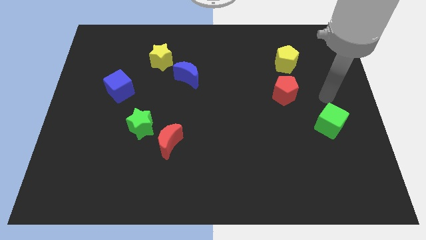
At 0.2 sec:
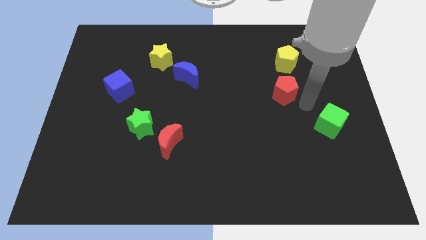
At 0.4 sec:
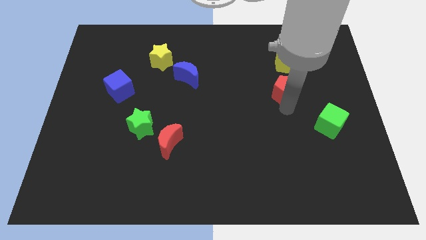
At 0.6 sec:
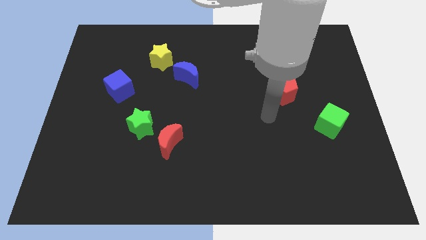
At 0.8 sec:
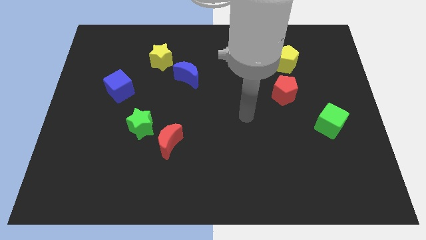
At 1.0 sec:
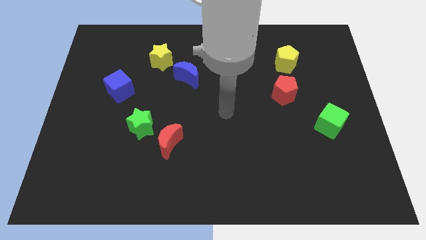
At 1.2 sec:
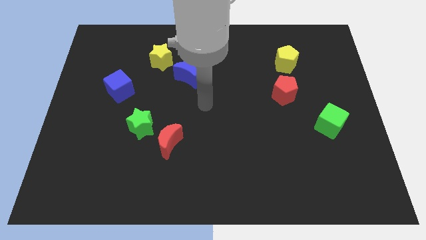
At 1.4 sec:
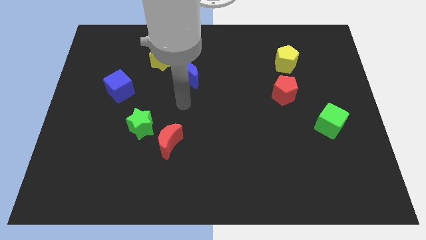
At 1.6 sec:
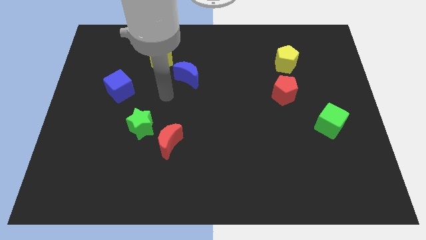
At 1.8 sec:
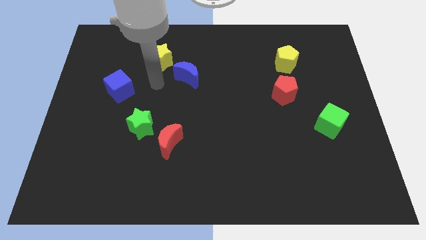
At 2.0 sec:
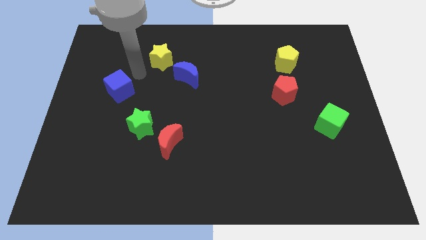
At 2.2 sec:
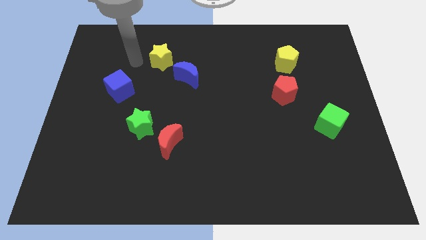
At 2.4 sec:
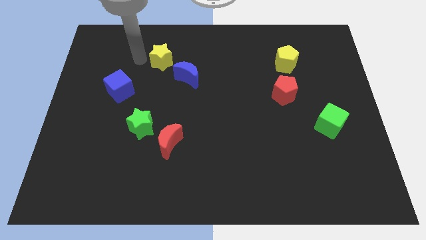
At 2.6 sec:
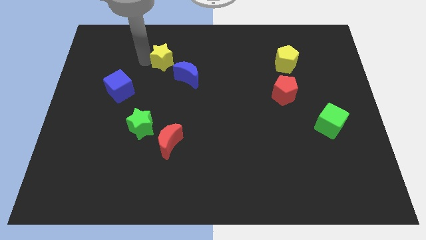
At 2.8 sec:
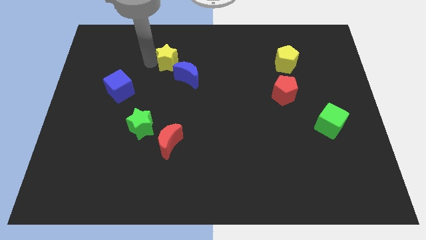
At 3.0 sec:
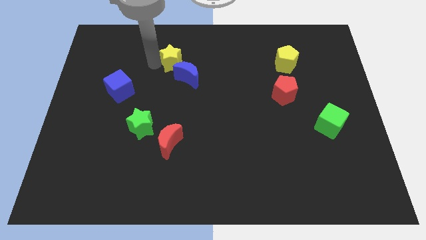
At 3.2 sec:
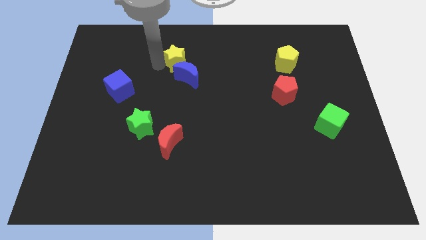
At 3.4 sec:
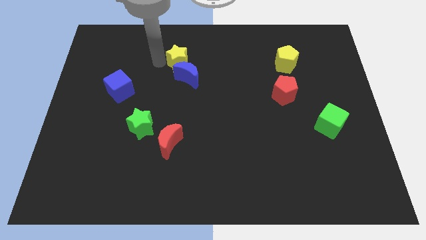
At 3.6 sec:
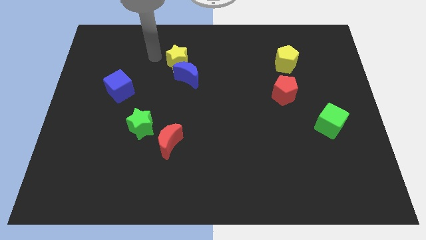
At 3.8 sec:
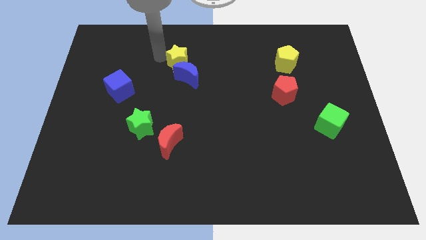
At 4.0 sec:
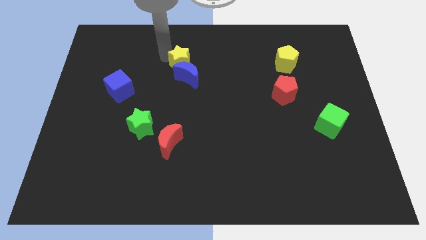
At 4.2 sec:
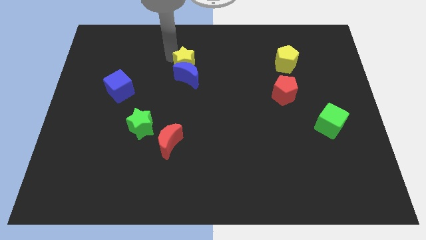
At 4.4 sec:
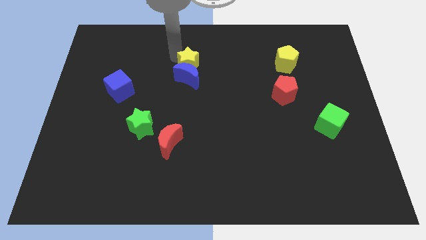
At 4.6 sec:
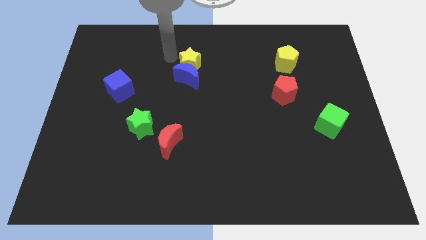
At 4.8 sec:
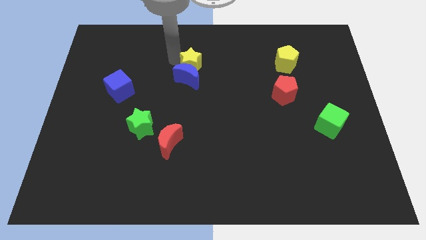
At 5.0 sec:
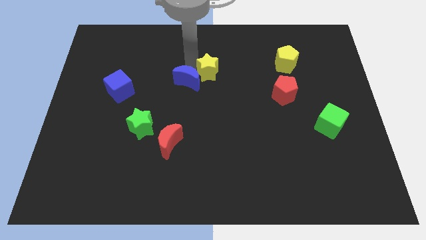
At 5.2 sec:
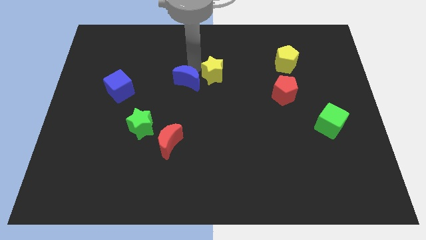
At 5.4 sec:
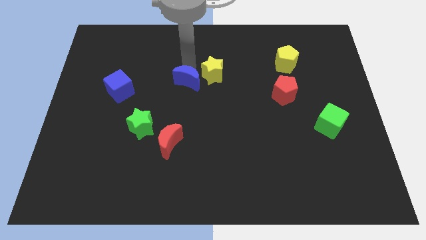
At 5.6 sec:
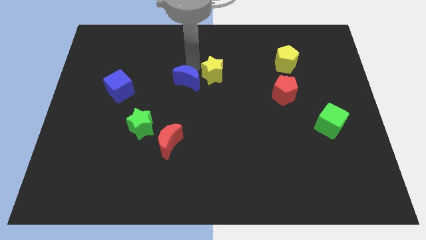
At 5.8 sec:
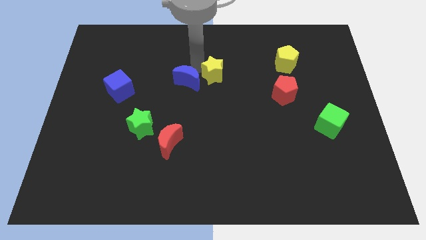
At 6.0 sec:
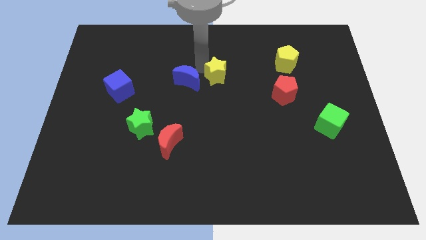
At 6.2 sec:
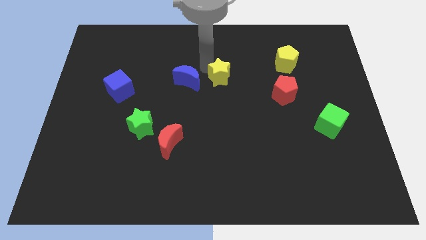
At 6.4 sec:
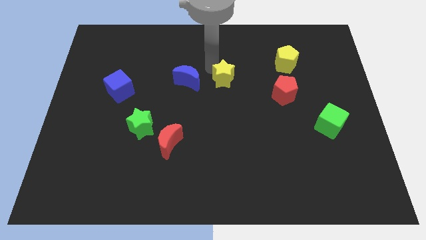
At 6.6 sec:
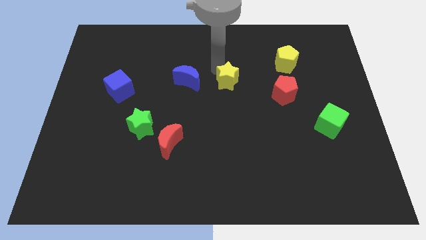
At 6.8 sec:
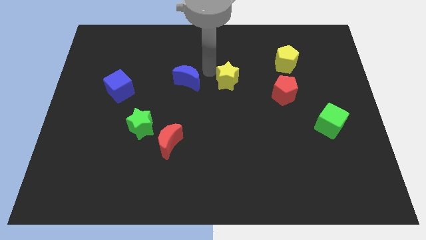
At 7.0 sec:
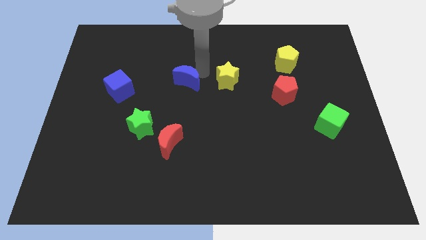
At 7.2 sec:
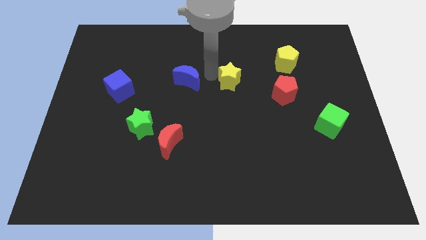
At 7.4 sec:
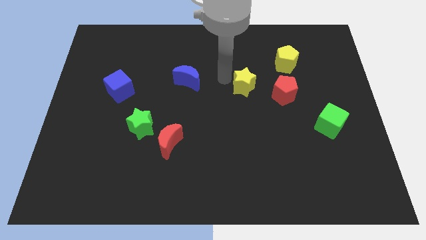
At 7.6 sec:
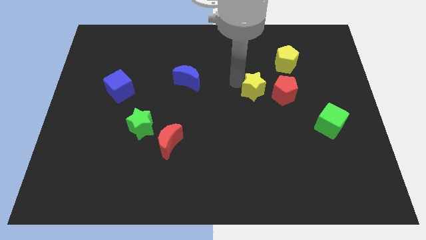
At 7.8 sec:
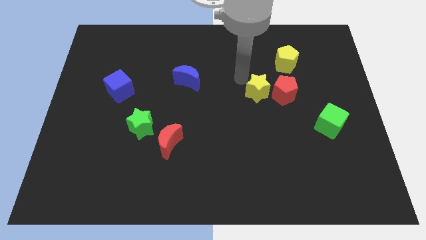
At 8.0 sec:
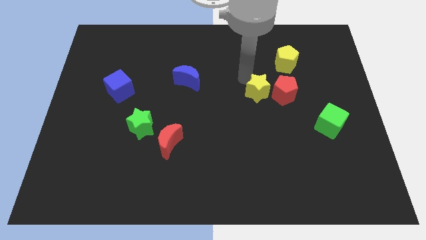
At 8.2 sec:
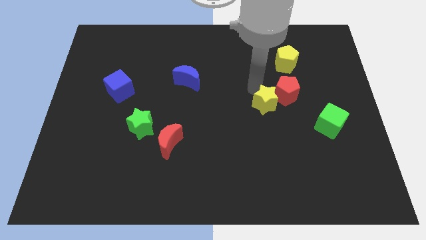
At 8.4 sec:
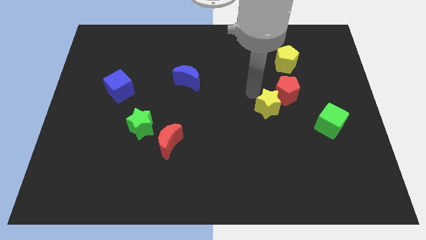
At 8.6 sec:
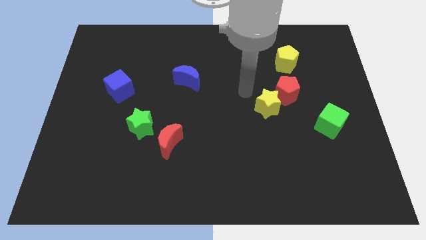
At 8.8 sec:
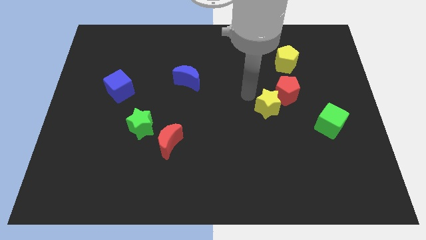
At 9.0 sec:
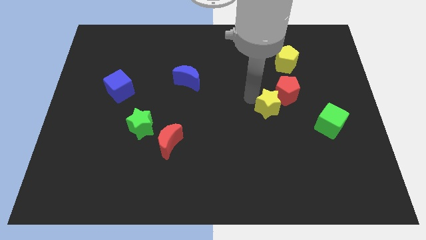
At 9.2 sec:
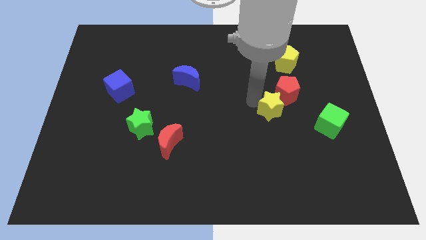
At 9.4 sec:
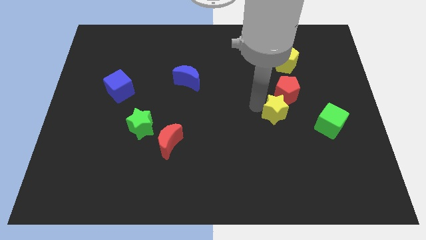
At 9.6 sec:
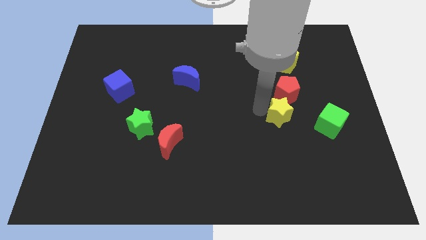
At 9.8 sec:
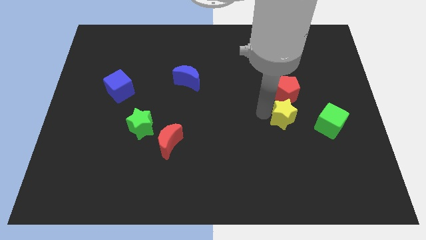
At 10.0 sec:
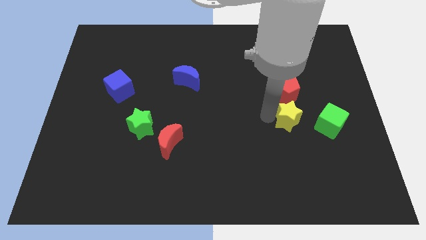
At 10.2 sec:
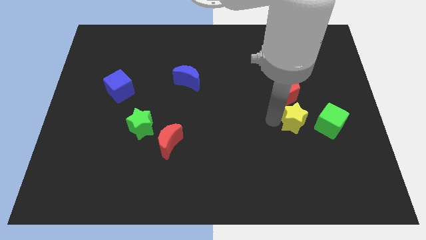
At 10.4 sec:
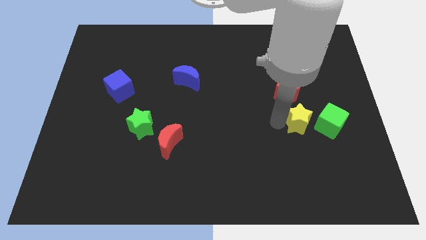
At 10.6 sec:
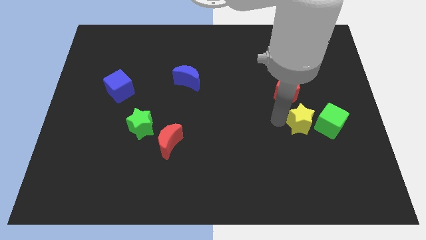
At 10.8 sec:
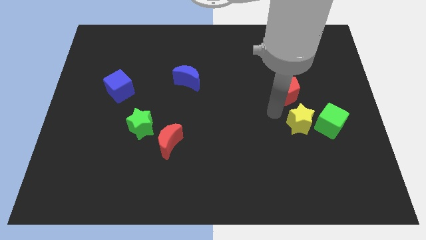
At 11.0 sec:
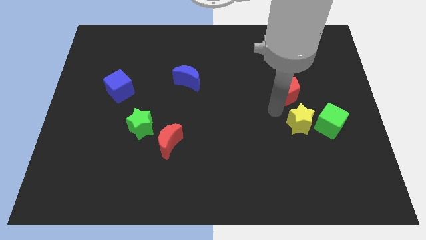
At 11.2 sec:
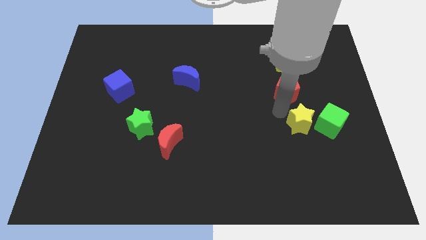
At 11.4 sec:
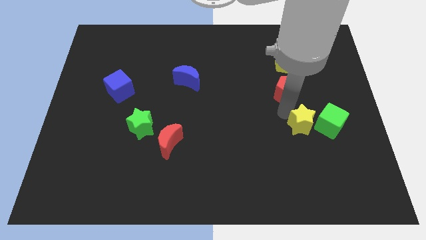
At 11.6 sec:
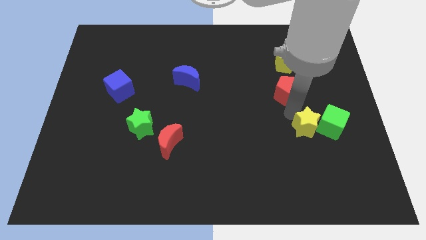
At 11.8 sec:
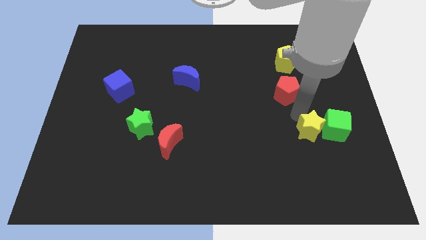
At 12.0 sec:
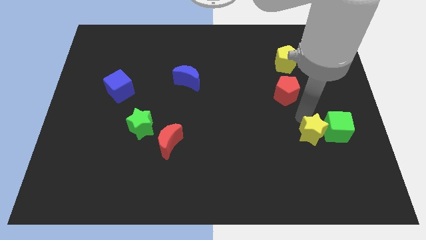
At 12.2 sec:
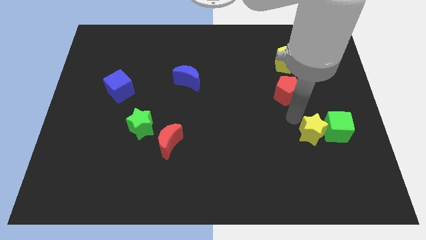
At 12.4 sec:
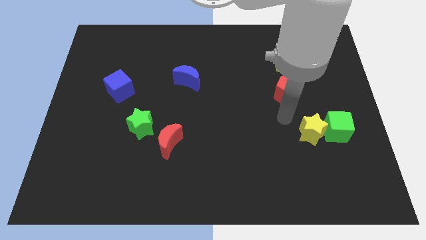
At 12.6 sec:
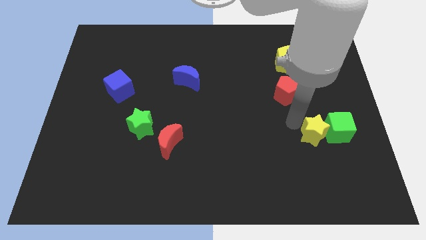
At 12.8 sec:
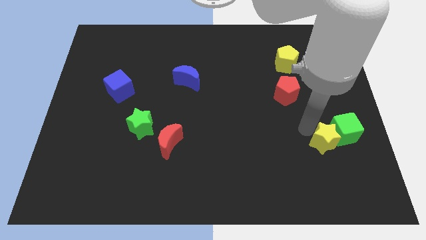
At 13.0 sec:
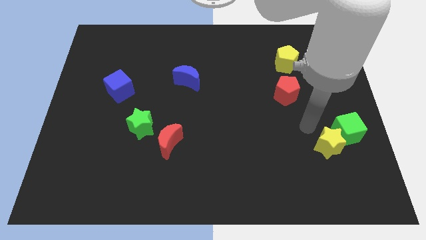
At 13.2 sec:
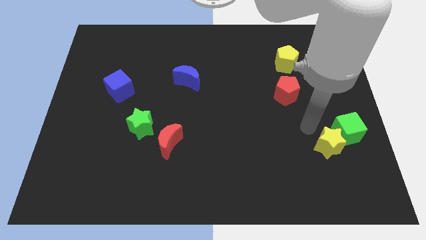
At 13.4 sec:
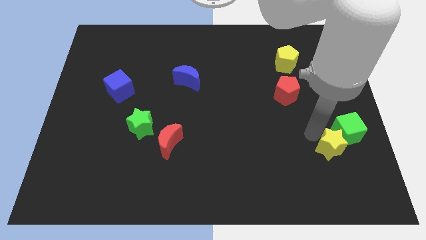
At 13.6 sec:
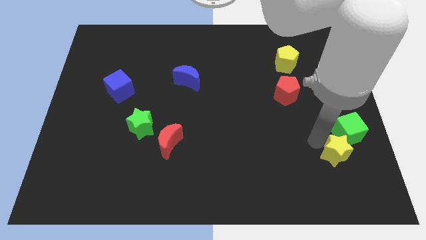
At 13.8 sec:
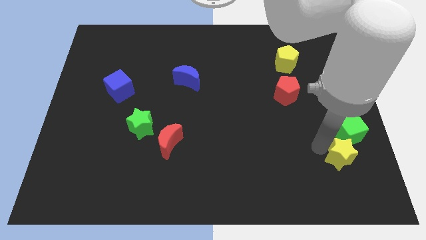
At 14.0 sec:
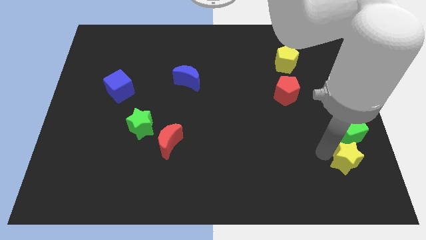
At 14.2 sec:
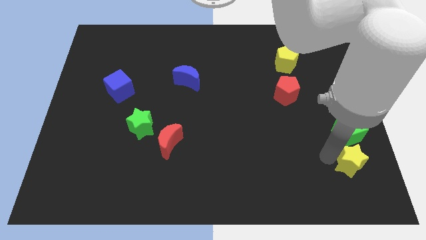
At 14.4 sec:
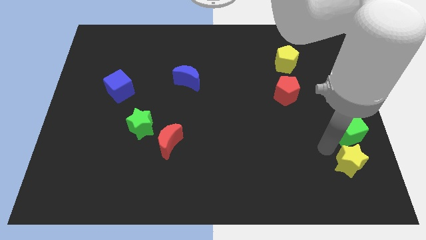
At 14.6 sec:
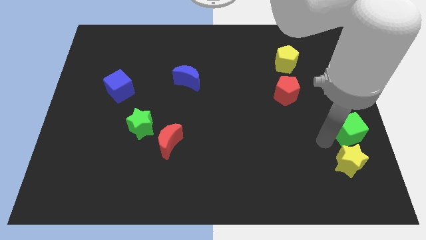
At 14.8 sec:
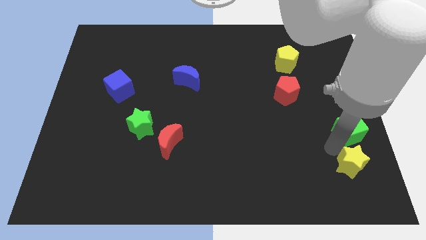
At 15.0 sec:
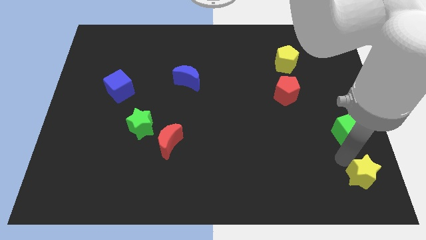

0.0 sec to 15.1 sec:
slide the yellow star to the bottom right corner
